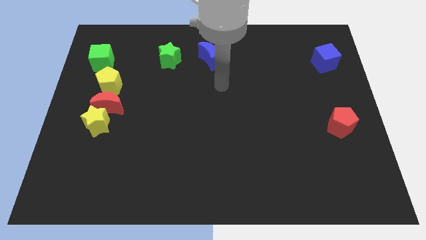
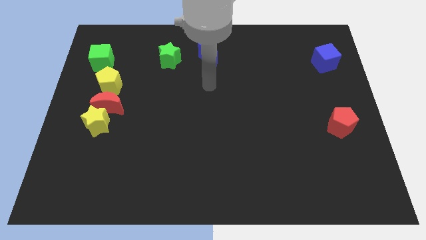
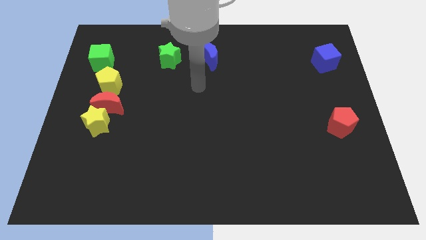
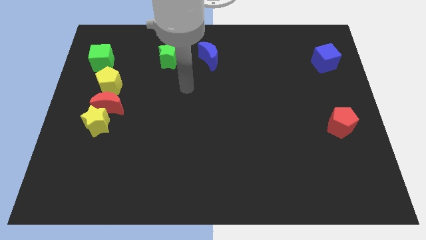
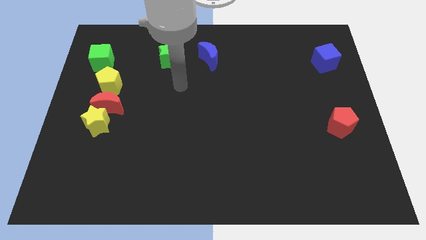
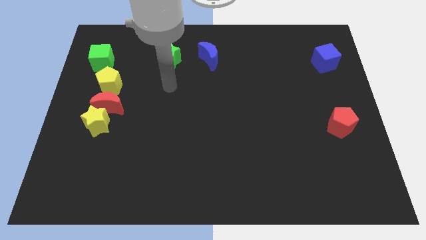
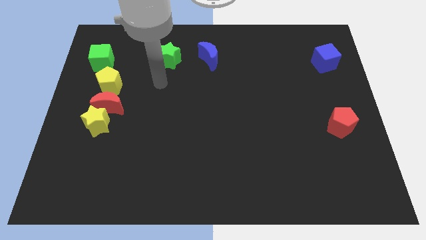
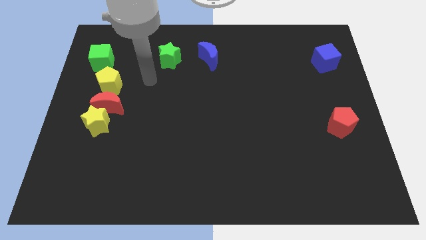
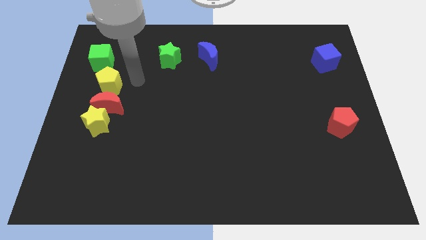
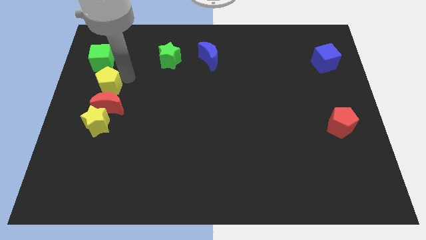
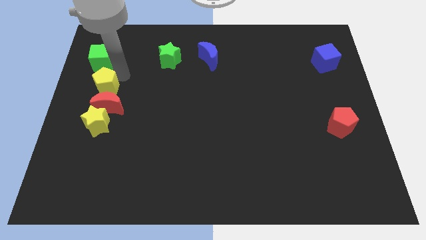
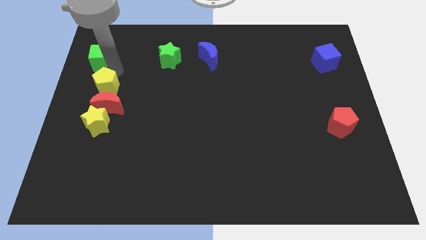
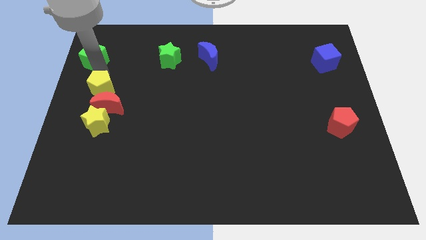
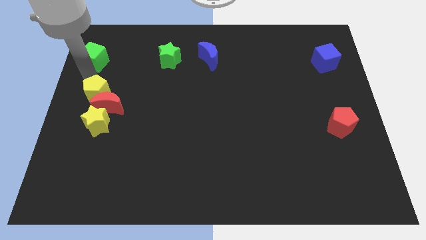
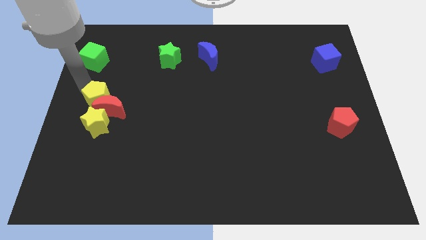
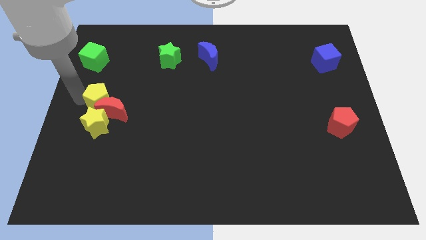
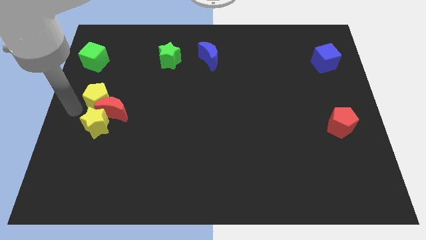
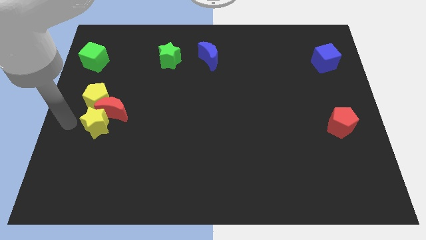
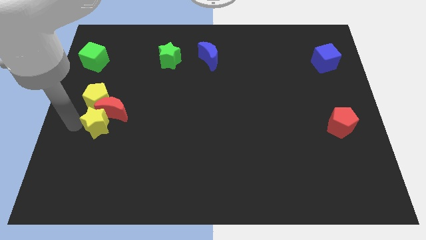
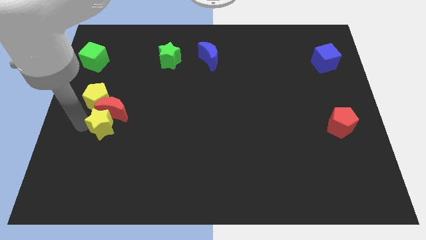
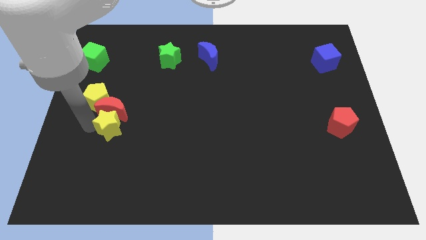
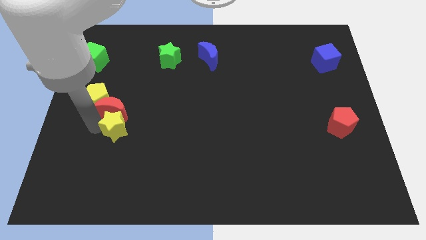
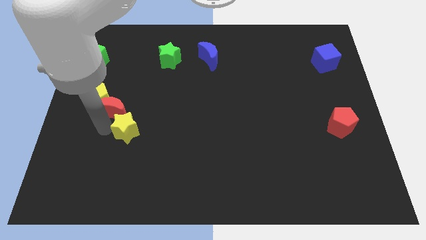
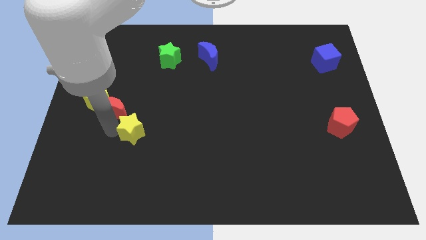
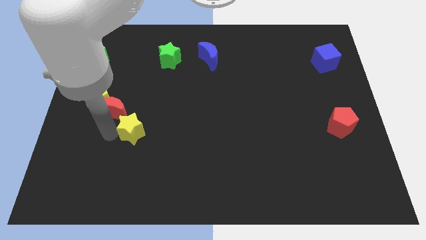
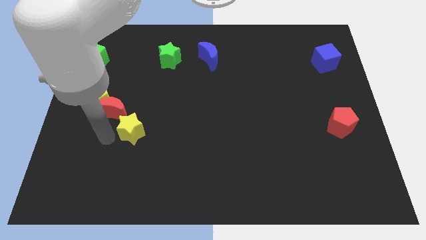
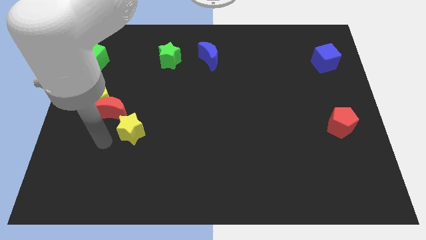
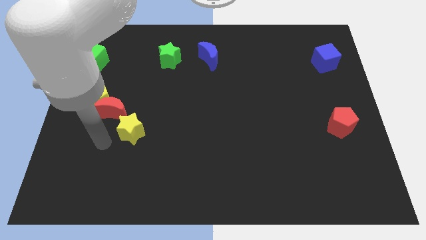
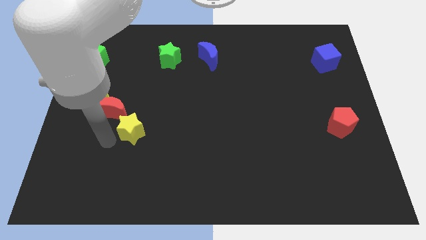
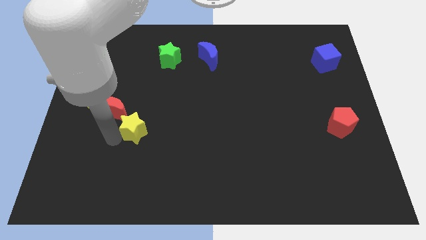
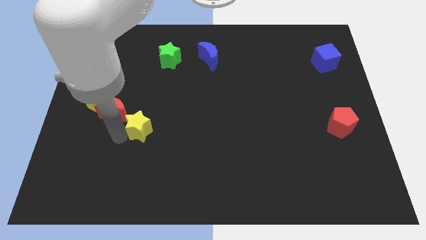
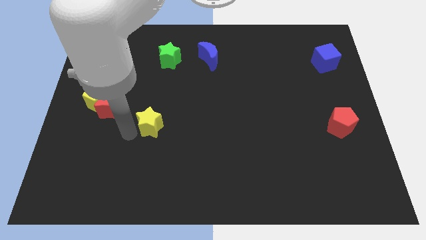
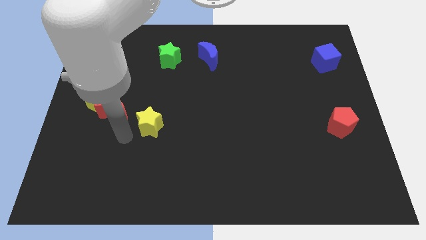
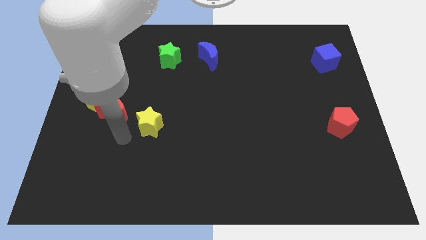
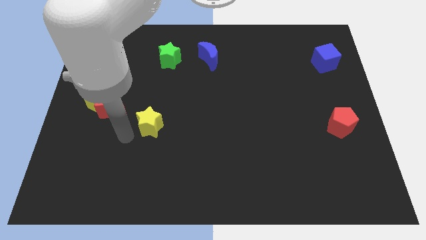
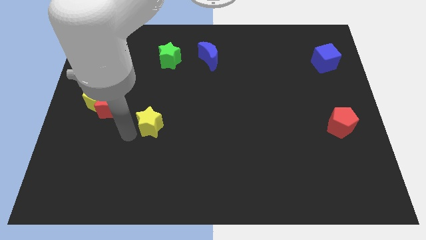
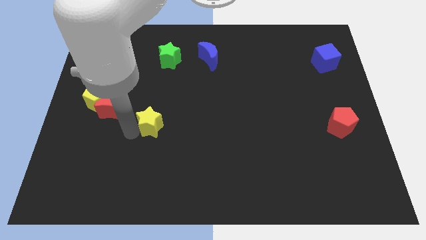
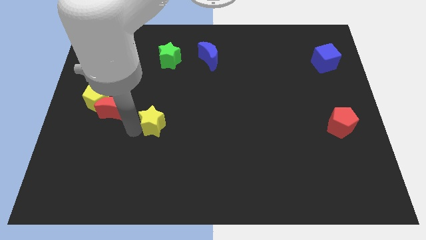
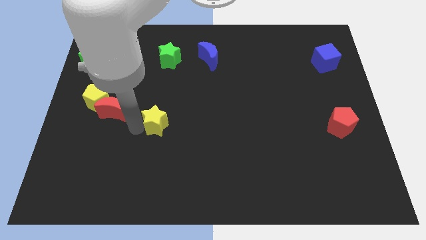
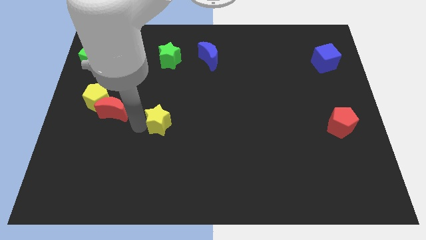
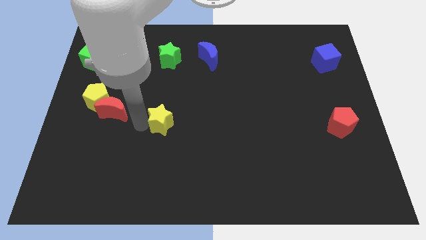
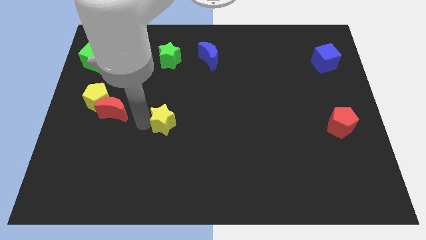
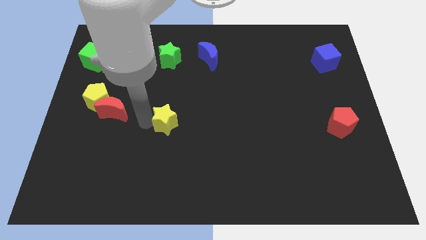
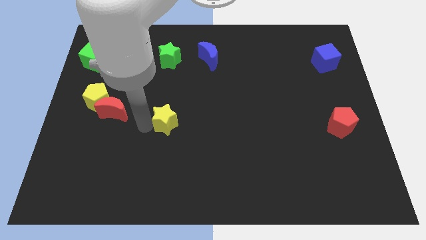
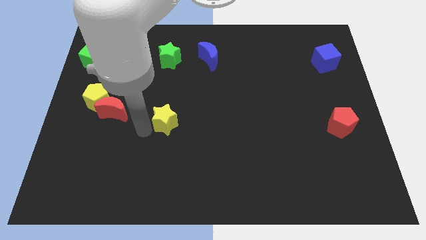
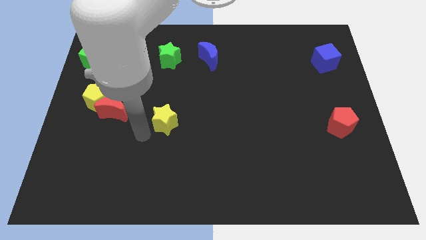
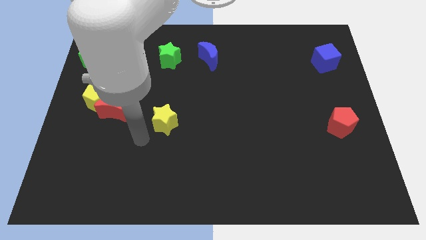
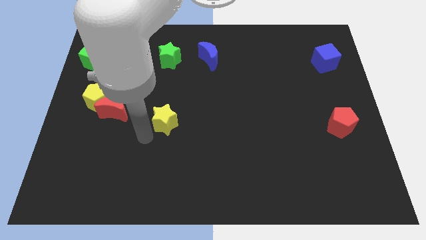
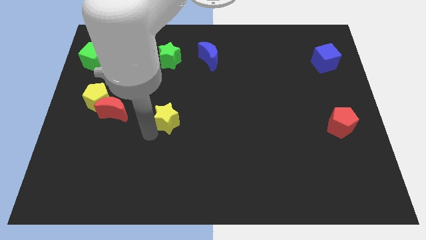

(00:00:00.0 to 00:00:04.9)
slide the yellow star to the center

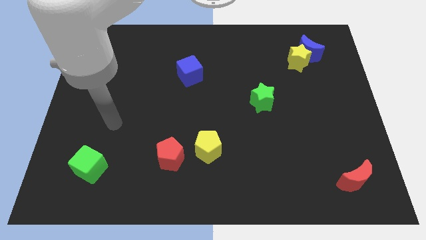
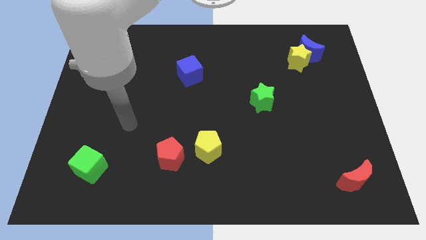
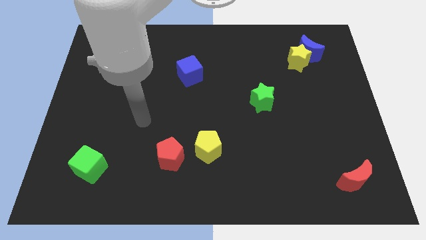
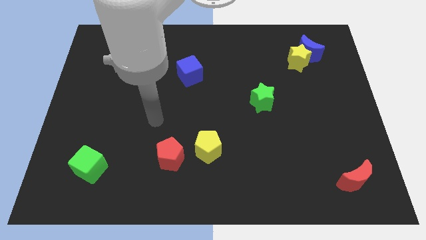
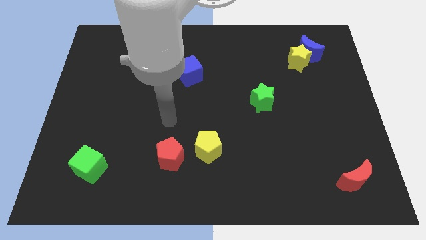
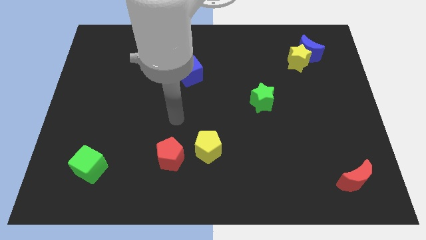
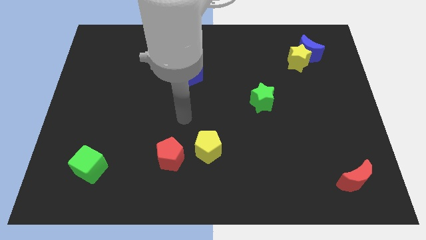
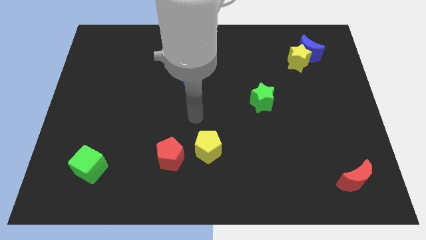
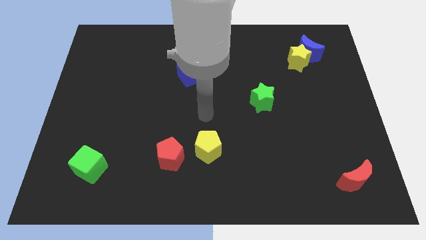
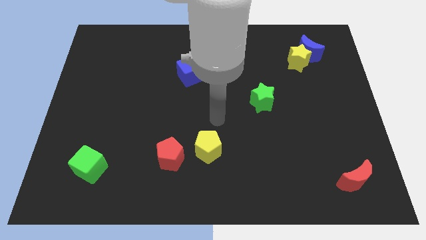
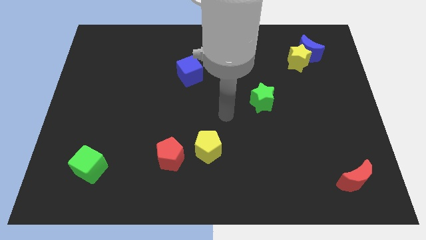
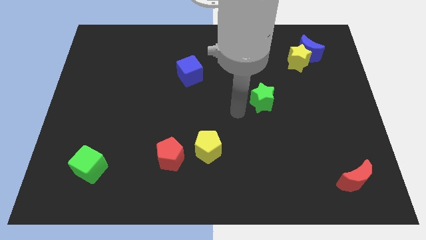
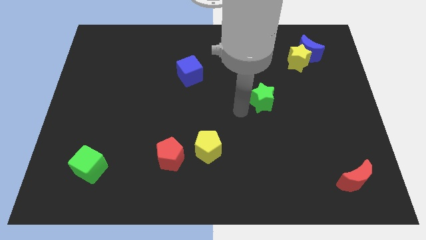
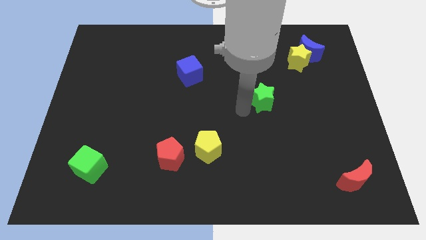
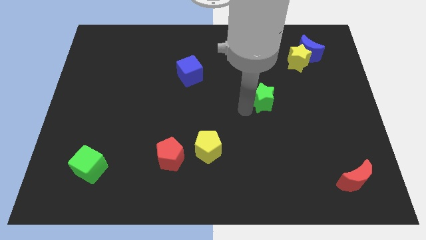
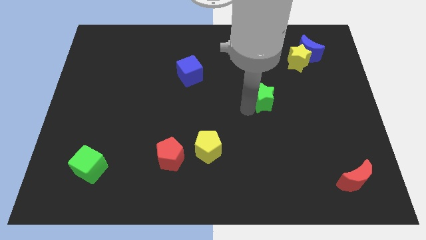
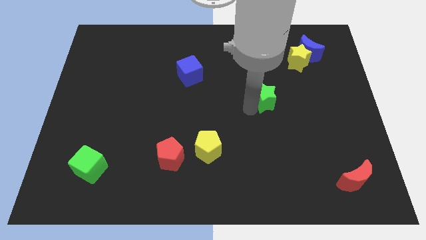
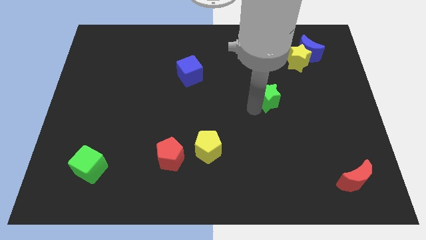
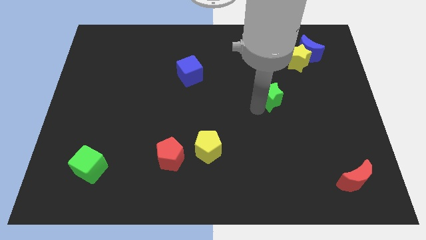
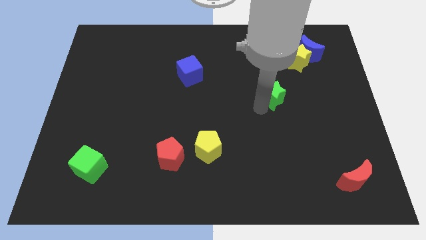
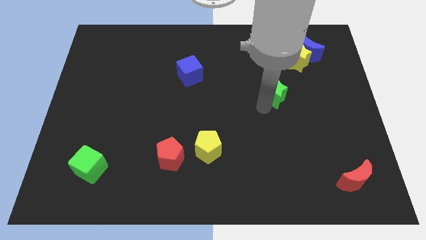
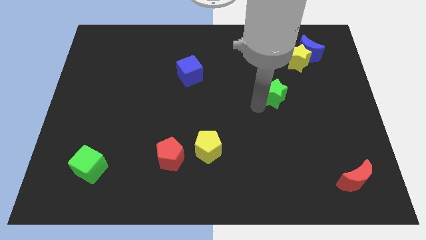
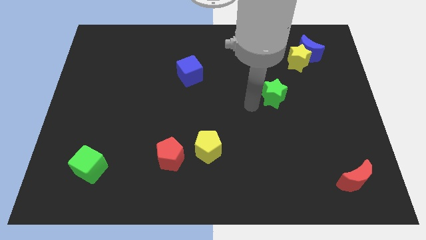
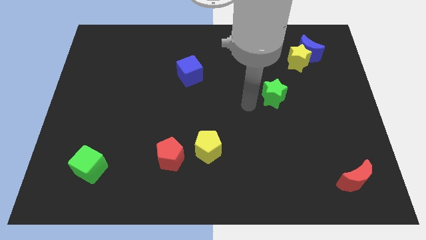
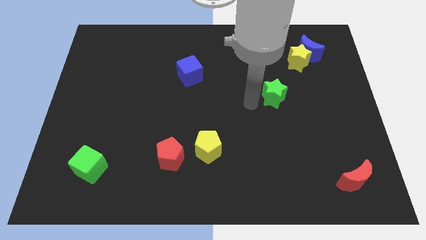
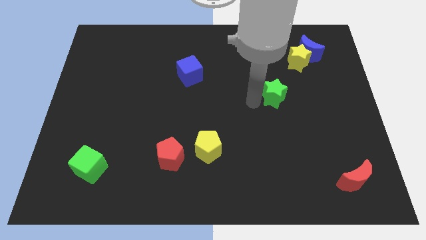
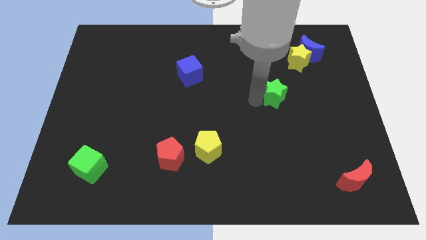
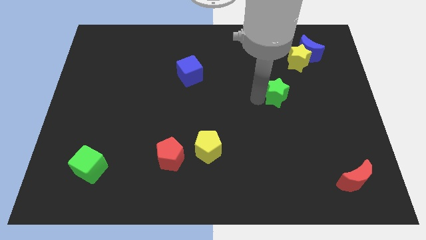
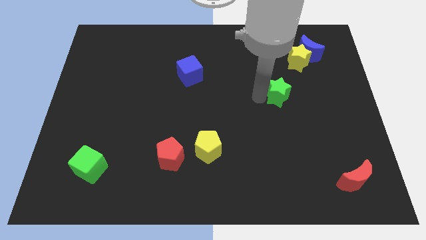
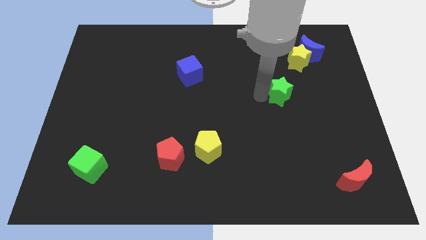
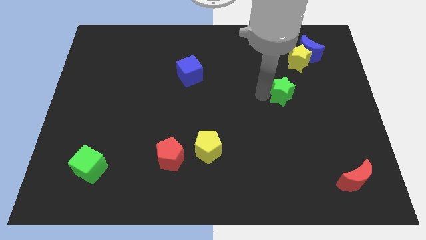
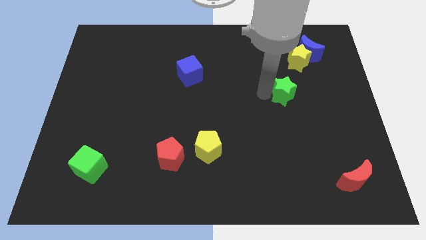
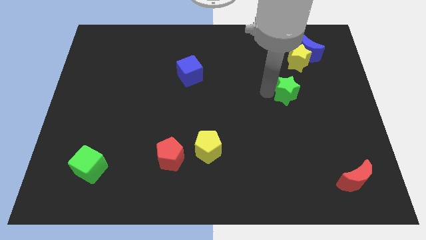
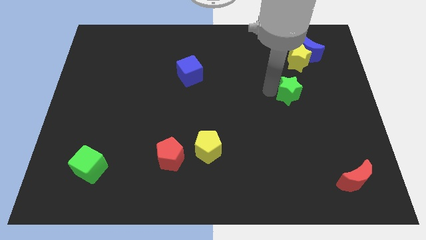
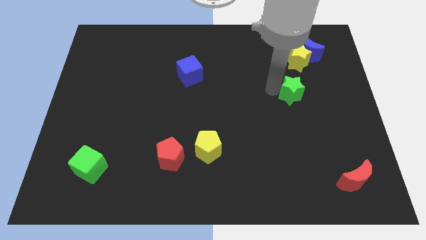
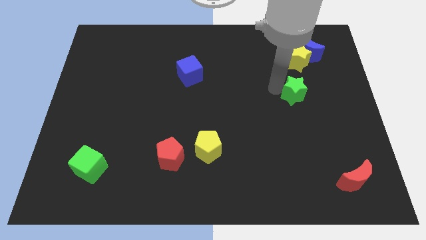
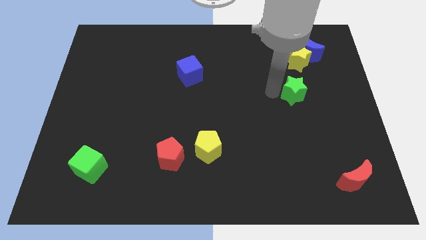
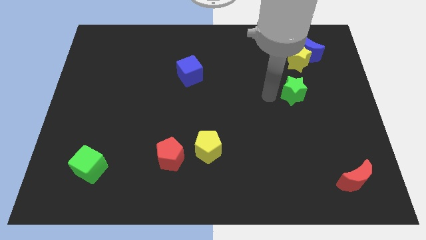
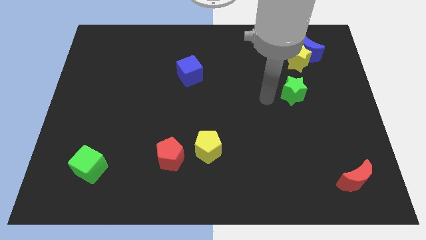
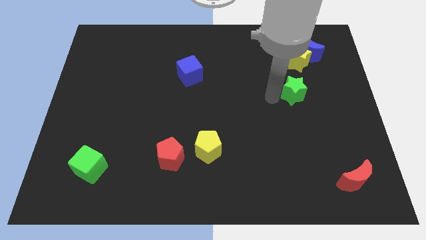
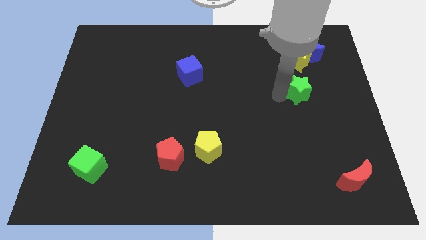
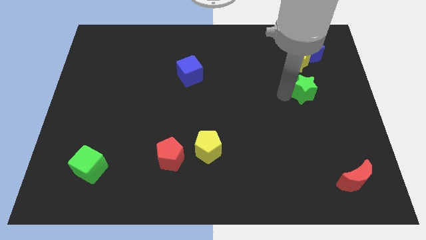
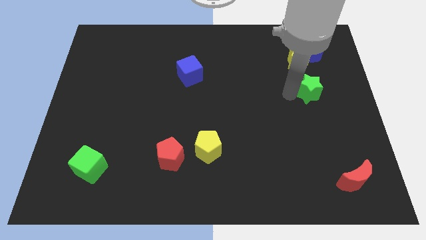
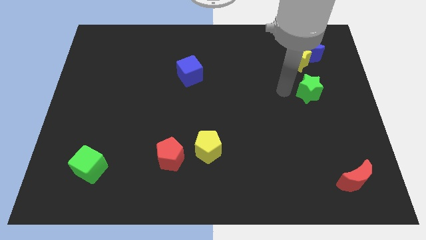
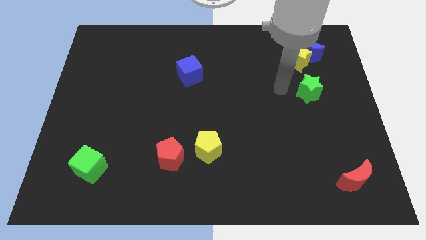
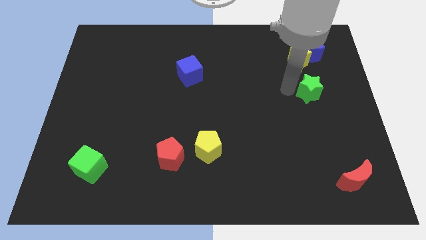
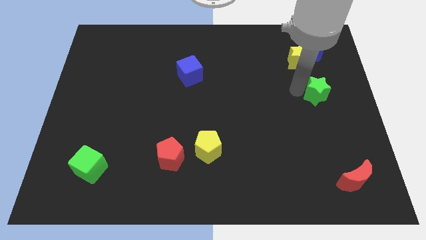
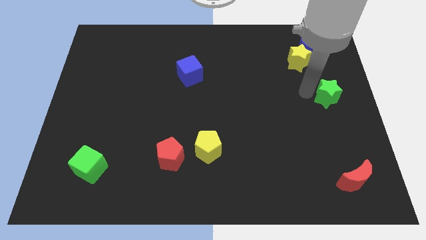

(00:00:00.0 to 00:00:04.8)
move the green star to the right side
